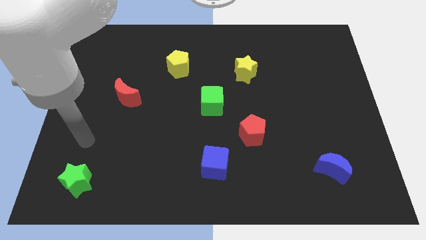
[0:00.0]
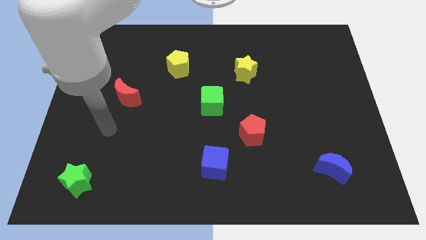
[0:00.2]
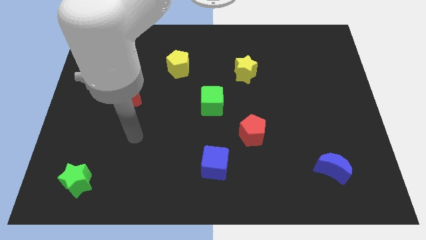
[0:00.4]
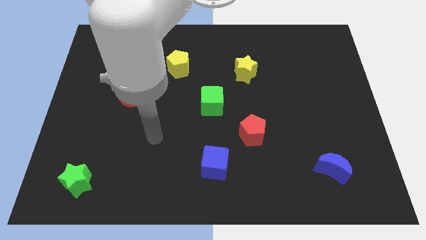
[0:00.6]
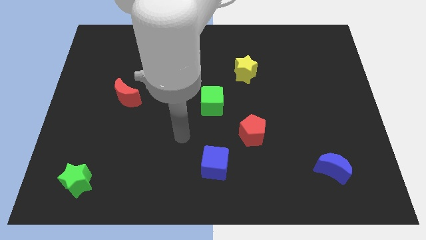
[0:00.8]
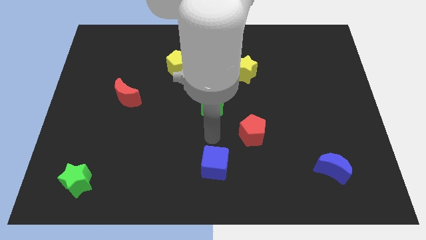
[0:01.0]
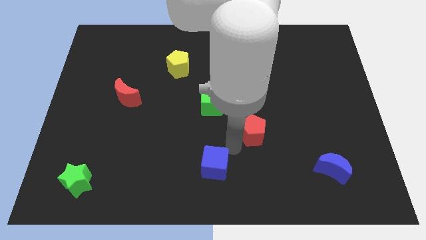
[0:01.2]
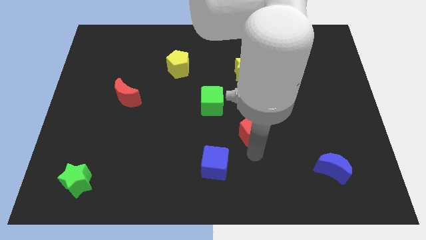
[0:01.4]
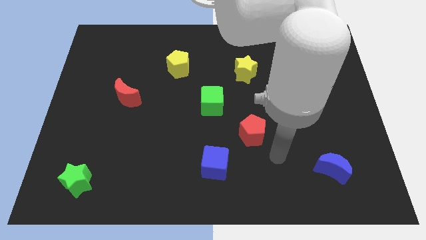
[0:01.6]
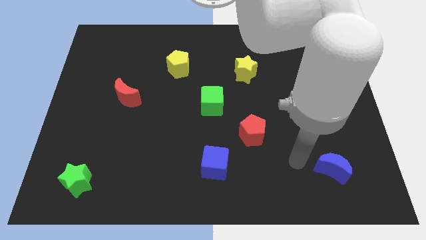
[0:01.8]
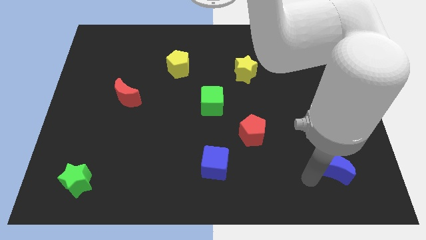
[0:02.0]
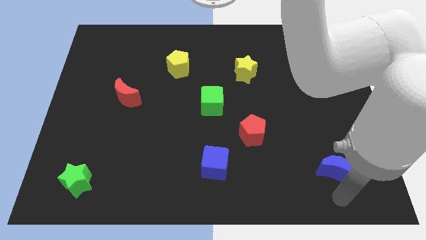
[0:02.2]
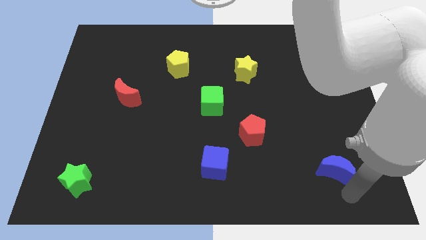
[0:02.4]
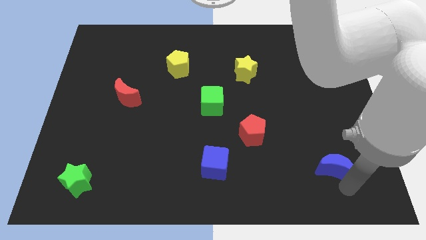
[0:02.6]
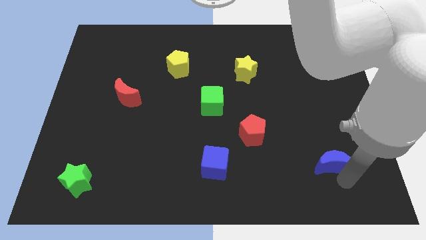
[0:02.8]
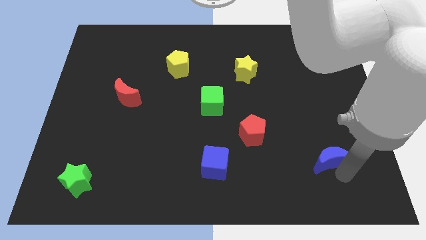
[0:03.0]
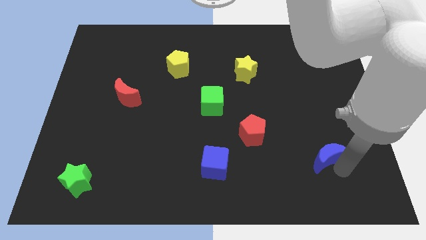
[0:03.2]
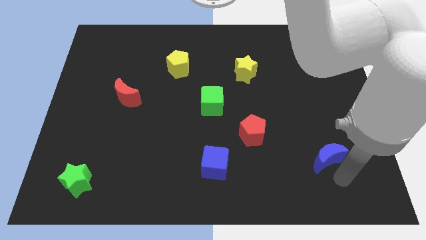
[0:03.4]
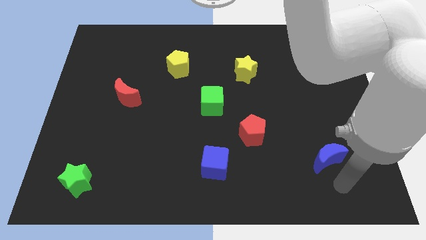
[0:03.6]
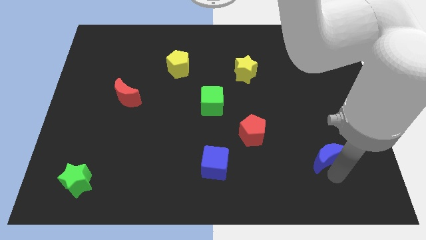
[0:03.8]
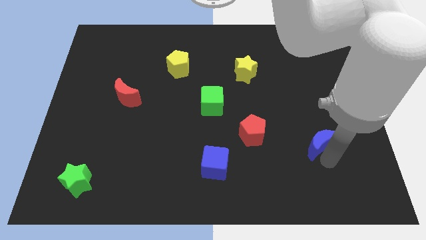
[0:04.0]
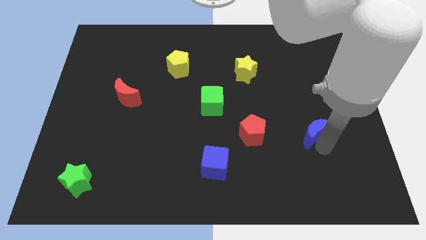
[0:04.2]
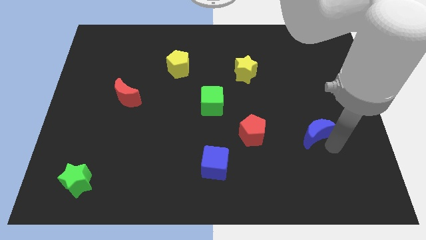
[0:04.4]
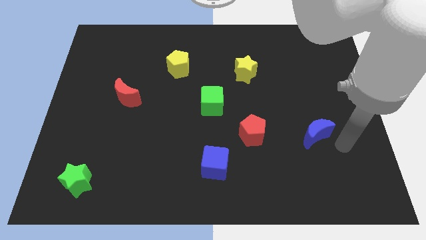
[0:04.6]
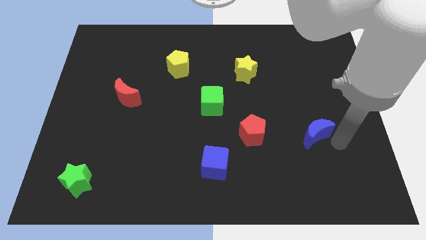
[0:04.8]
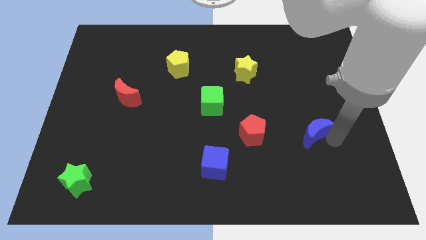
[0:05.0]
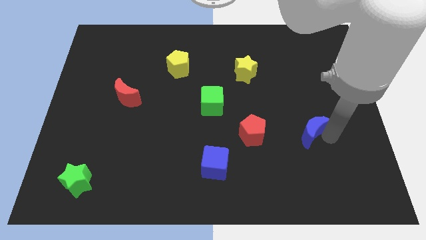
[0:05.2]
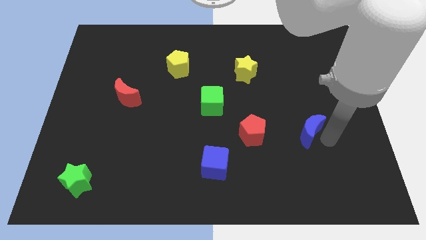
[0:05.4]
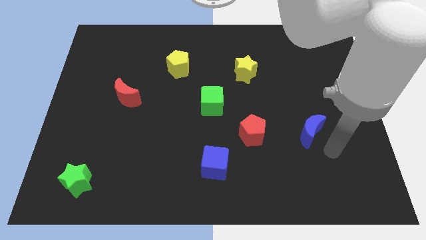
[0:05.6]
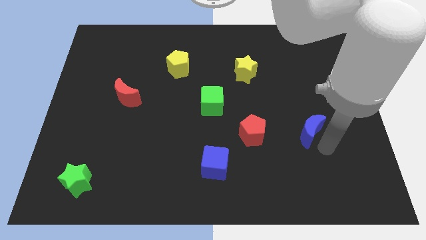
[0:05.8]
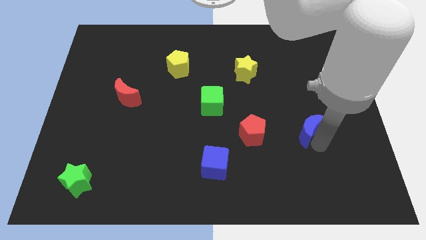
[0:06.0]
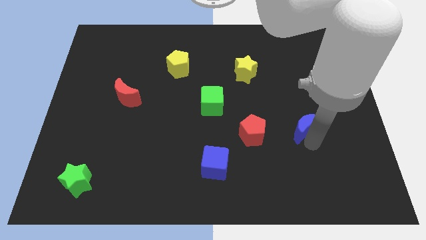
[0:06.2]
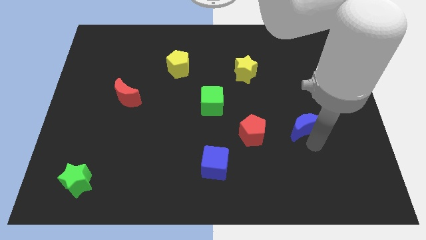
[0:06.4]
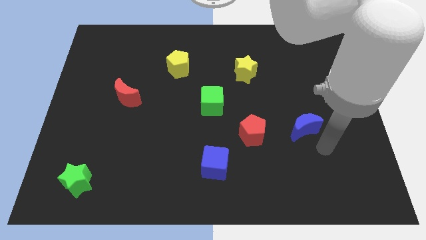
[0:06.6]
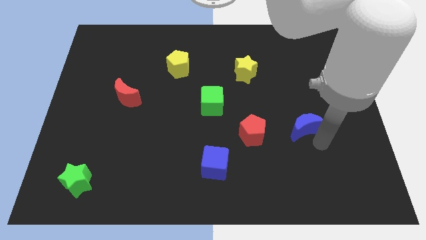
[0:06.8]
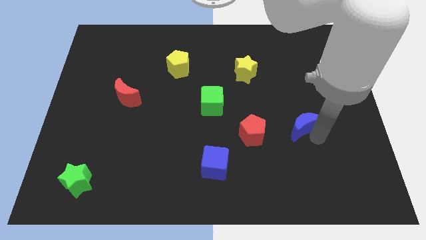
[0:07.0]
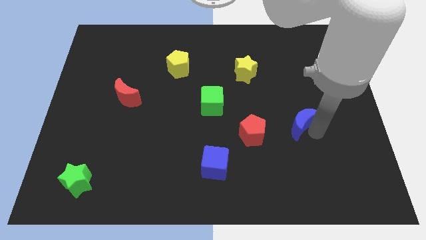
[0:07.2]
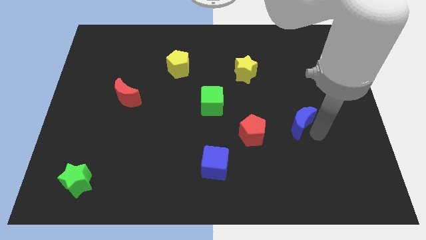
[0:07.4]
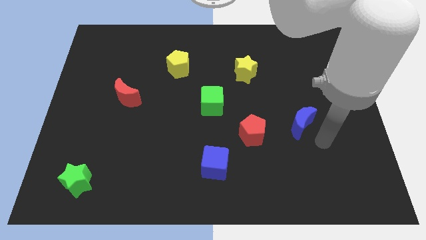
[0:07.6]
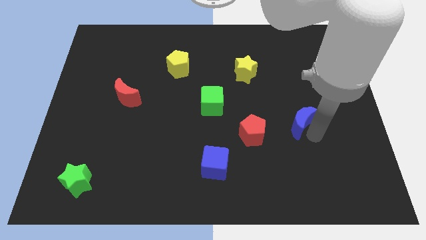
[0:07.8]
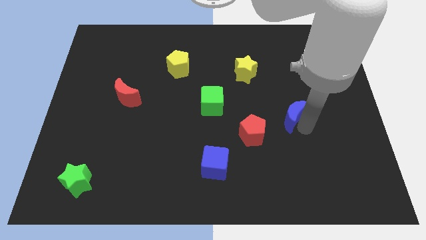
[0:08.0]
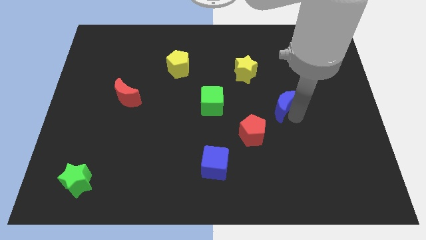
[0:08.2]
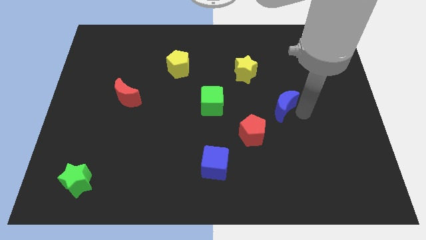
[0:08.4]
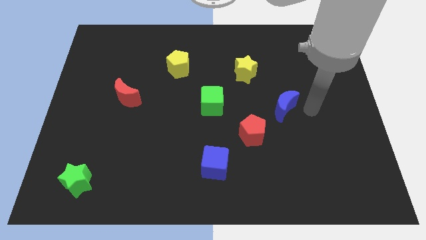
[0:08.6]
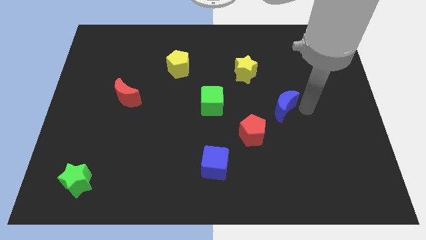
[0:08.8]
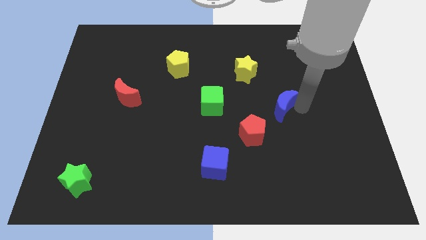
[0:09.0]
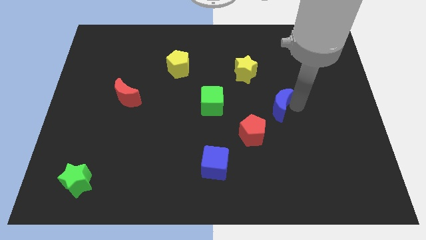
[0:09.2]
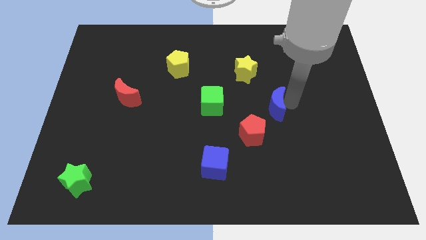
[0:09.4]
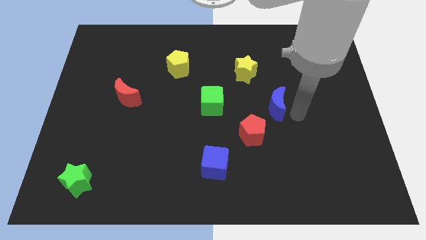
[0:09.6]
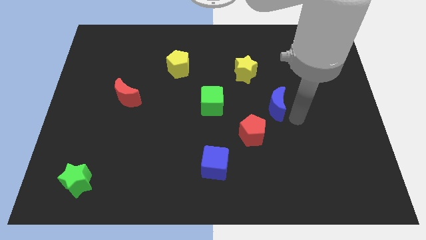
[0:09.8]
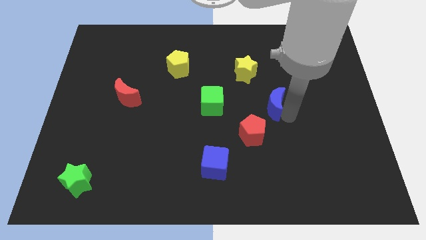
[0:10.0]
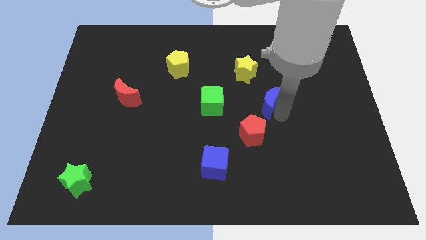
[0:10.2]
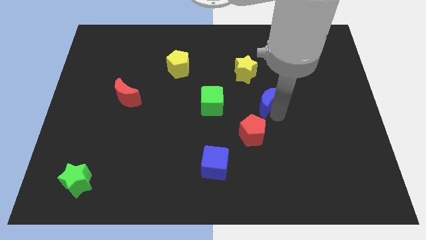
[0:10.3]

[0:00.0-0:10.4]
slide the blue moon up and to the left

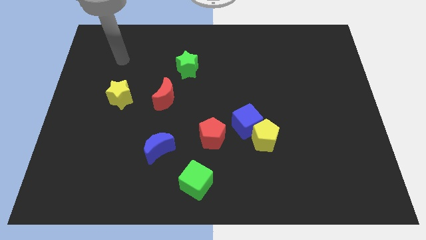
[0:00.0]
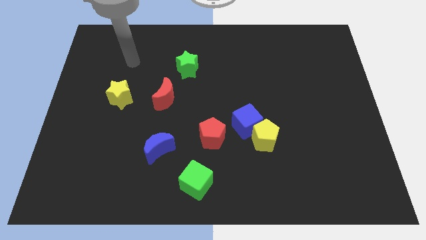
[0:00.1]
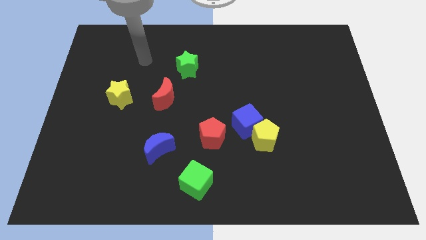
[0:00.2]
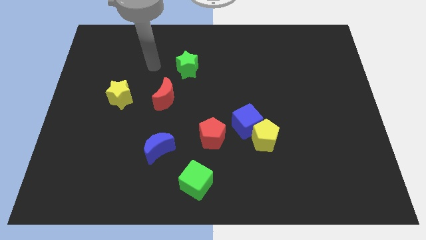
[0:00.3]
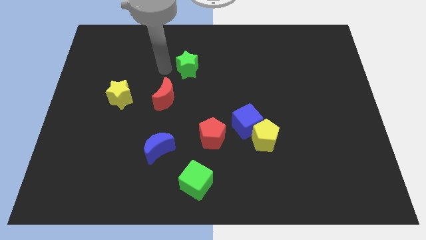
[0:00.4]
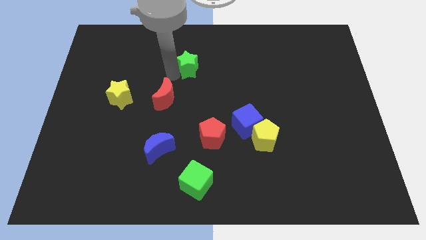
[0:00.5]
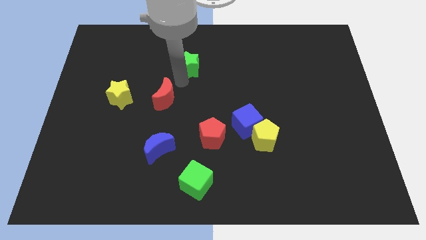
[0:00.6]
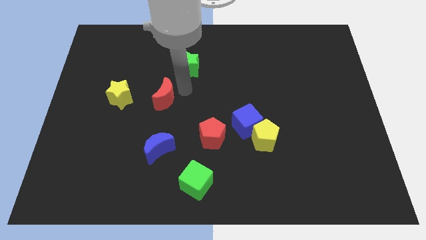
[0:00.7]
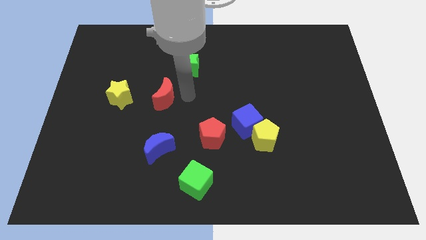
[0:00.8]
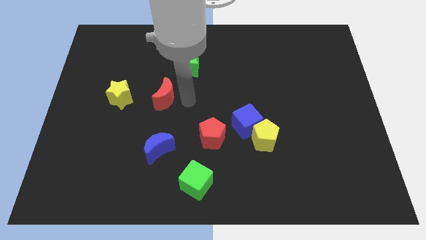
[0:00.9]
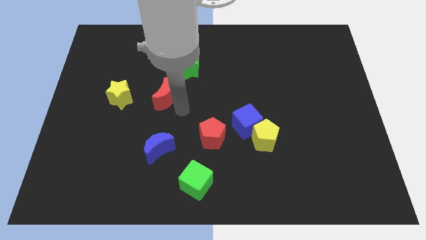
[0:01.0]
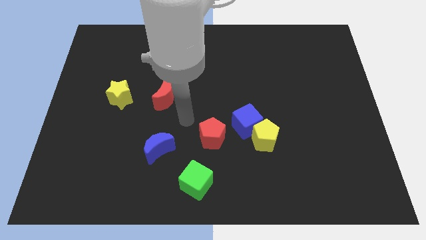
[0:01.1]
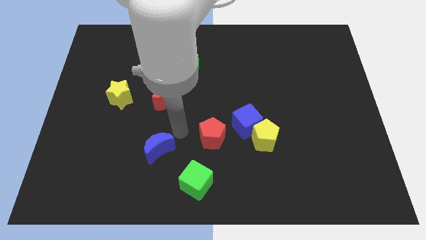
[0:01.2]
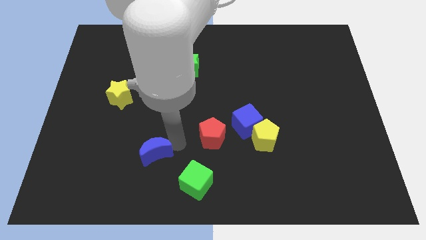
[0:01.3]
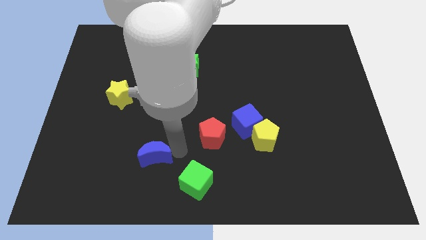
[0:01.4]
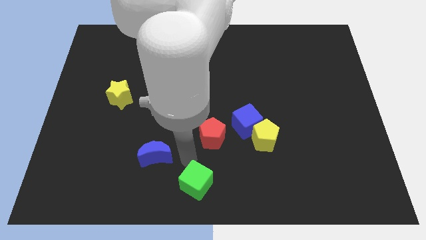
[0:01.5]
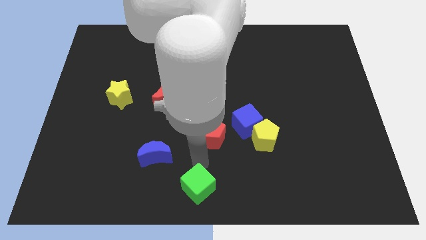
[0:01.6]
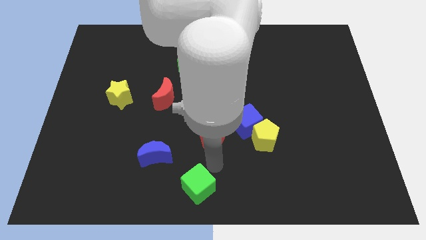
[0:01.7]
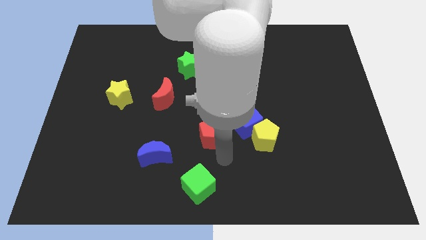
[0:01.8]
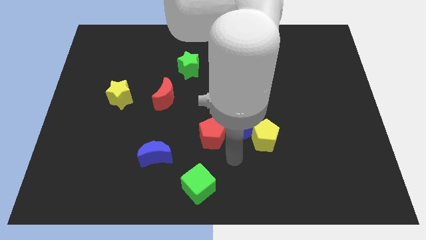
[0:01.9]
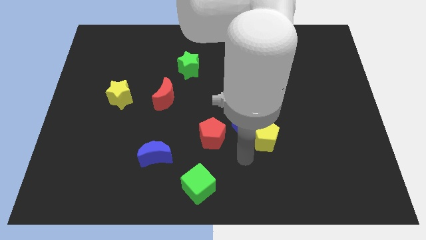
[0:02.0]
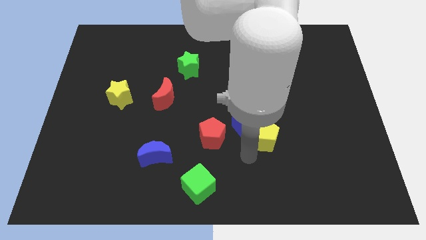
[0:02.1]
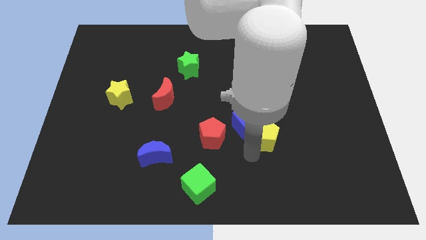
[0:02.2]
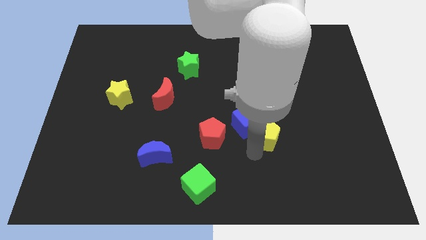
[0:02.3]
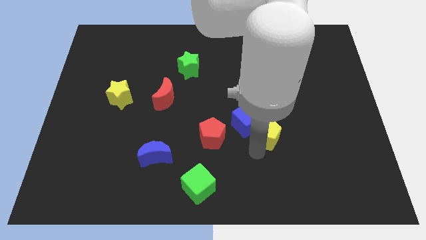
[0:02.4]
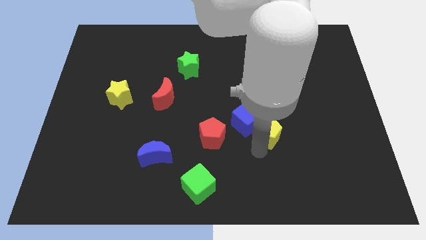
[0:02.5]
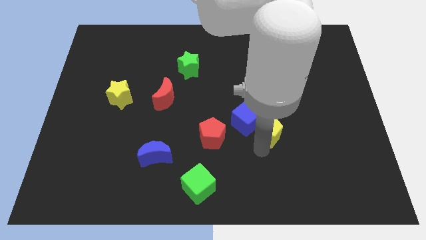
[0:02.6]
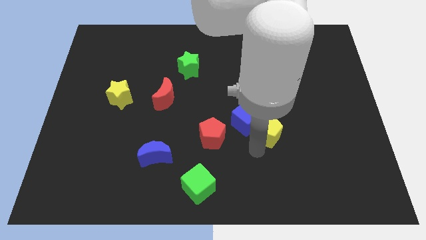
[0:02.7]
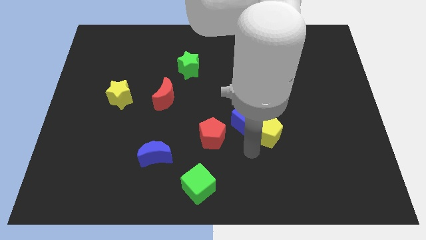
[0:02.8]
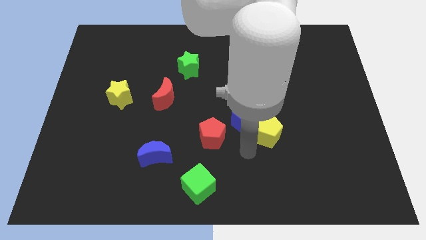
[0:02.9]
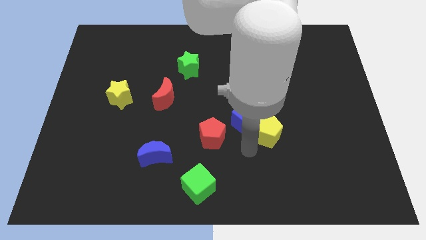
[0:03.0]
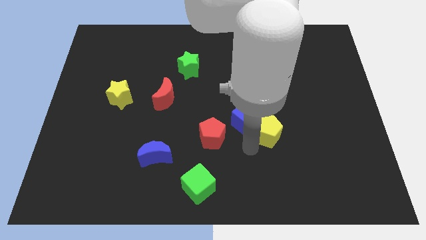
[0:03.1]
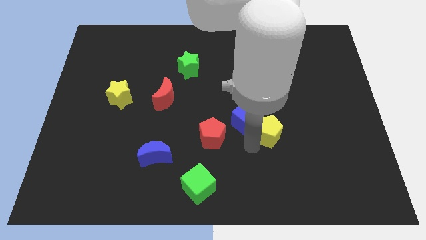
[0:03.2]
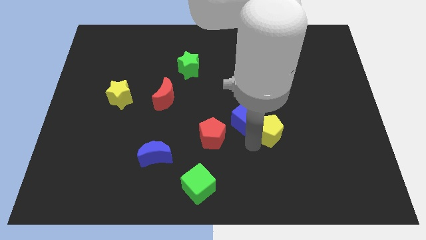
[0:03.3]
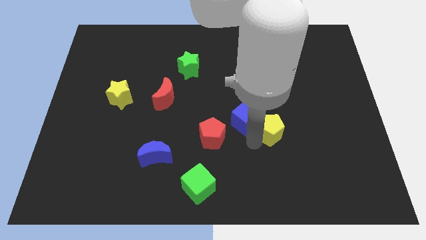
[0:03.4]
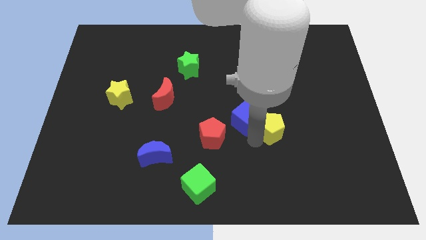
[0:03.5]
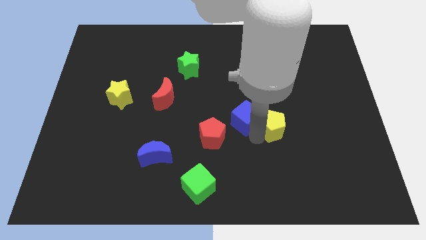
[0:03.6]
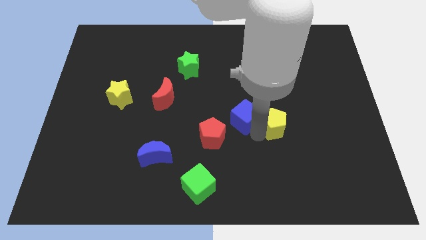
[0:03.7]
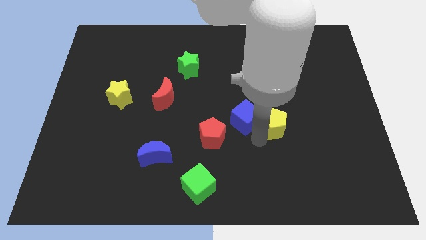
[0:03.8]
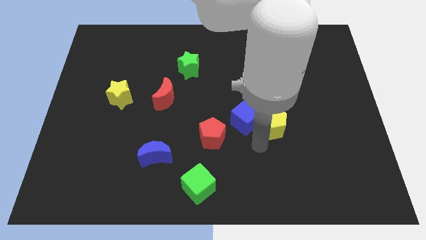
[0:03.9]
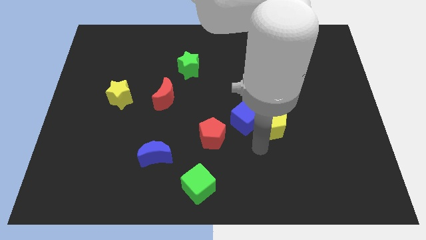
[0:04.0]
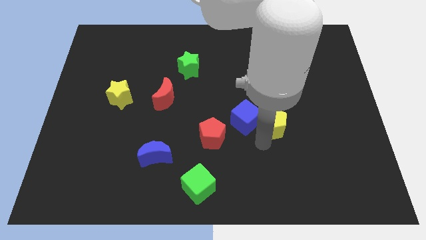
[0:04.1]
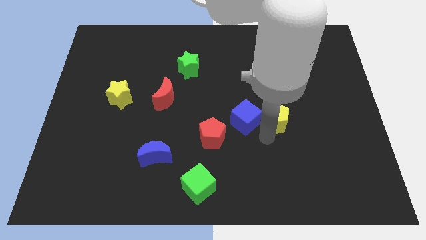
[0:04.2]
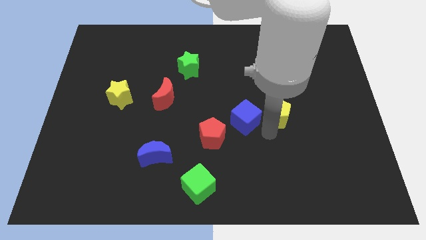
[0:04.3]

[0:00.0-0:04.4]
push the yellow pentagon diagonally upwards and right somewhat
